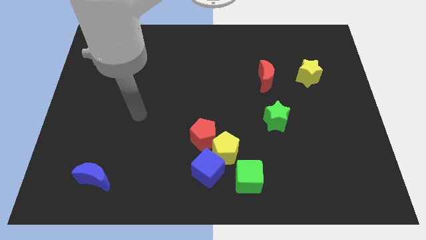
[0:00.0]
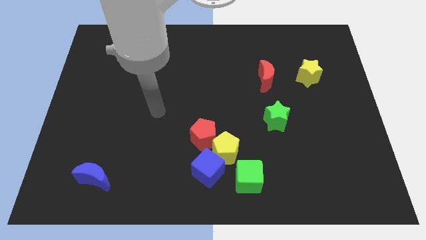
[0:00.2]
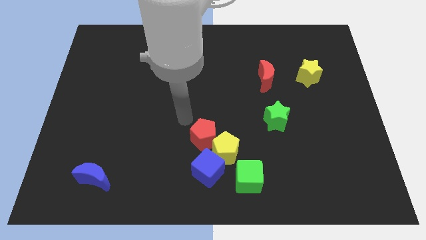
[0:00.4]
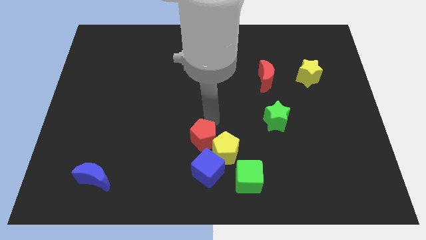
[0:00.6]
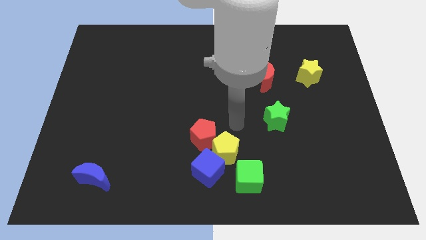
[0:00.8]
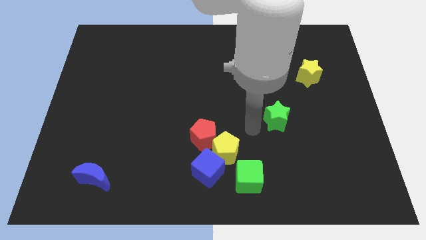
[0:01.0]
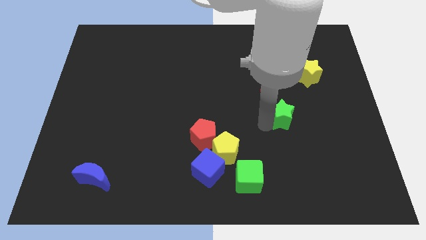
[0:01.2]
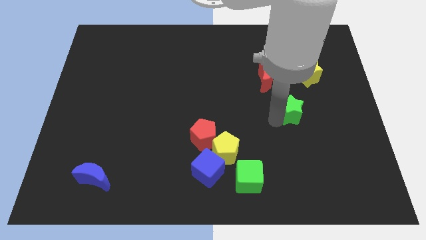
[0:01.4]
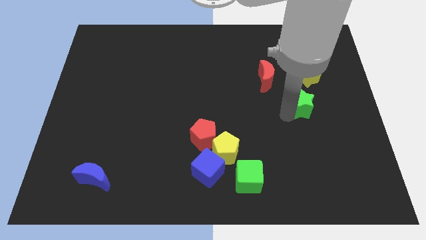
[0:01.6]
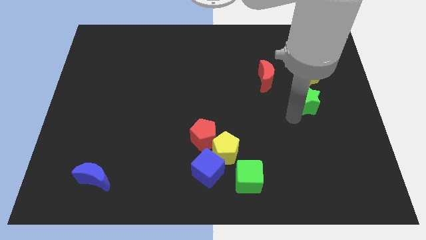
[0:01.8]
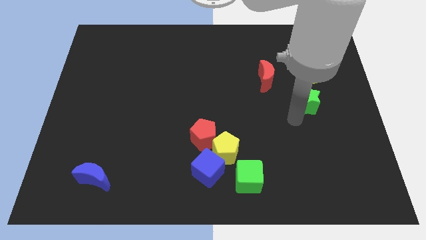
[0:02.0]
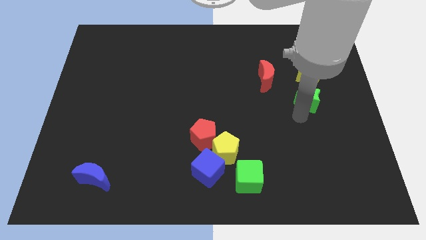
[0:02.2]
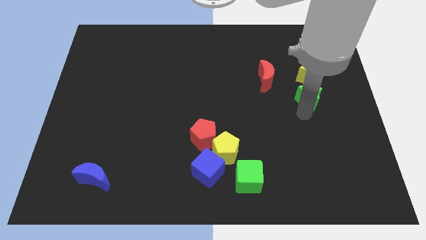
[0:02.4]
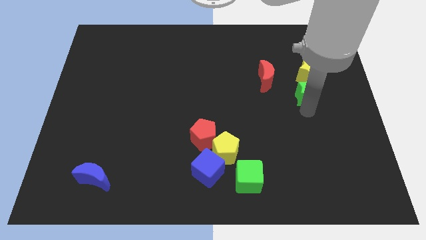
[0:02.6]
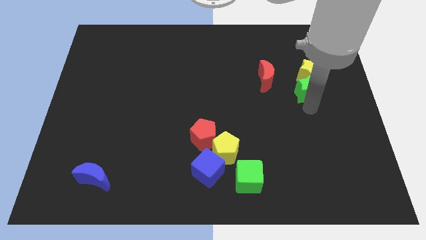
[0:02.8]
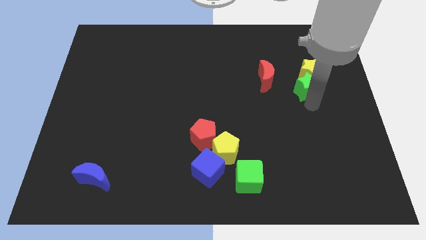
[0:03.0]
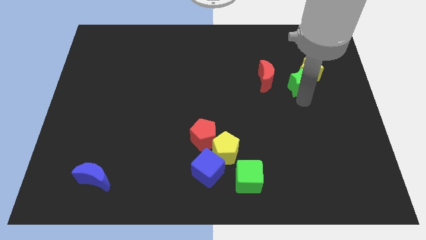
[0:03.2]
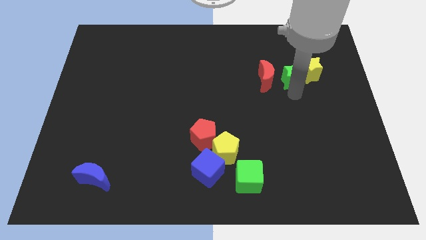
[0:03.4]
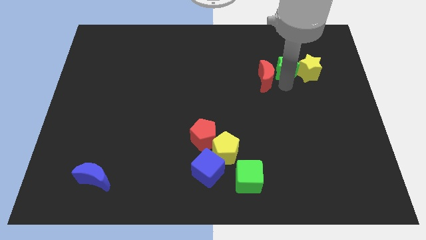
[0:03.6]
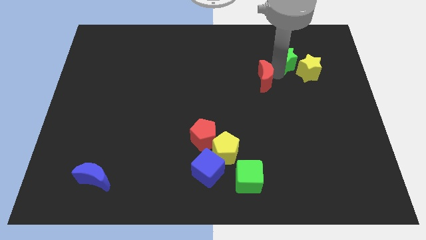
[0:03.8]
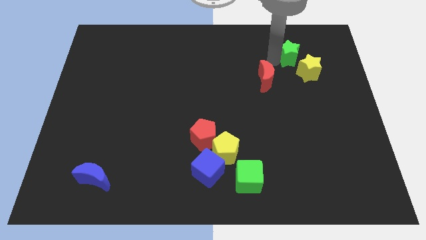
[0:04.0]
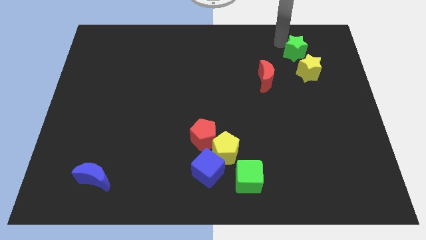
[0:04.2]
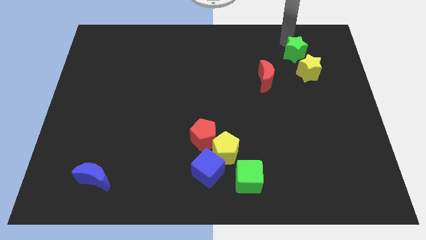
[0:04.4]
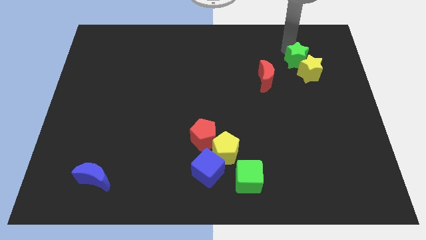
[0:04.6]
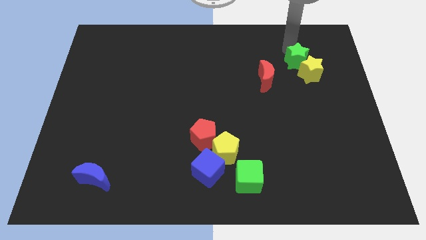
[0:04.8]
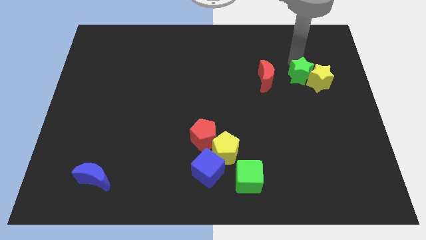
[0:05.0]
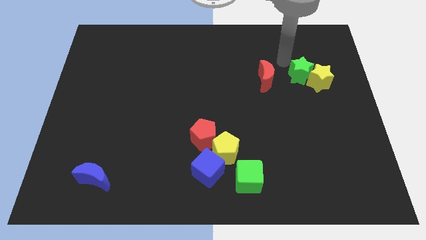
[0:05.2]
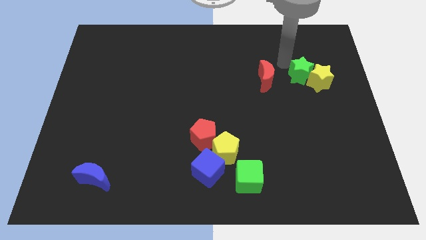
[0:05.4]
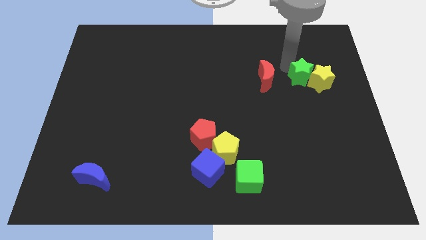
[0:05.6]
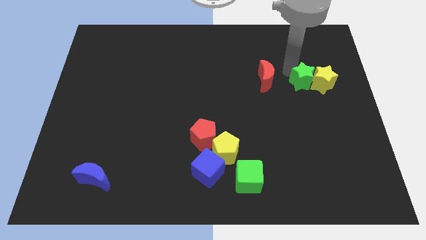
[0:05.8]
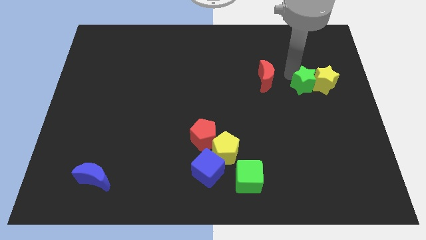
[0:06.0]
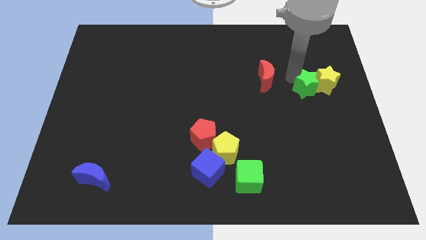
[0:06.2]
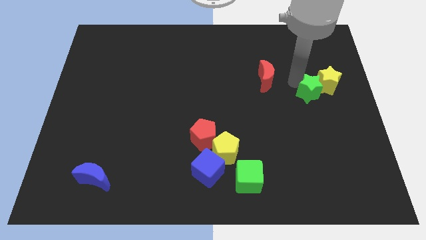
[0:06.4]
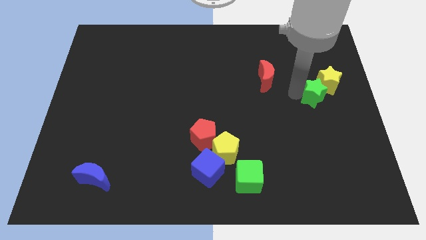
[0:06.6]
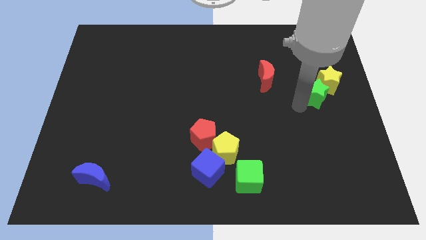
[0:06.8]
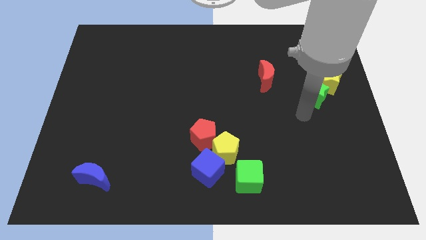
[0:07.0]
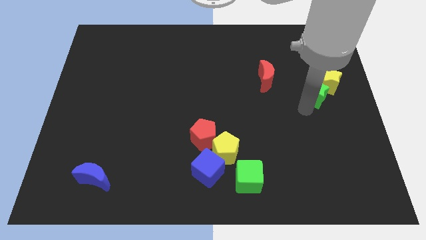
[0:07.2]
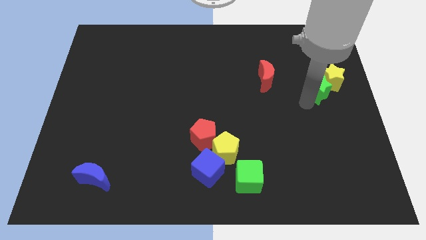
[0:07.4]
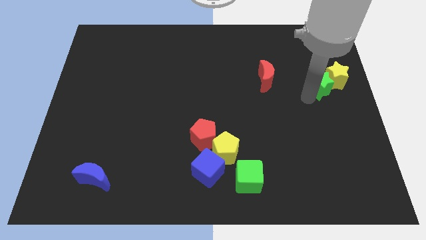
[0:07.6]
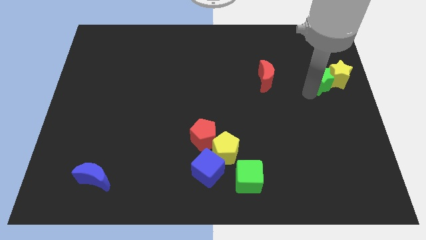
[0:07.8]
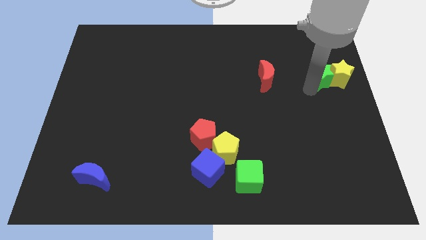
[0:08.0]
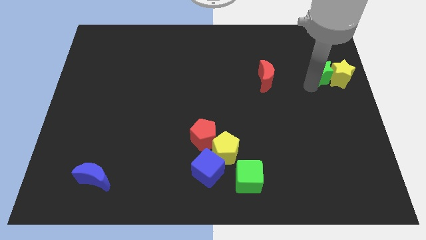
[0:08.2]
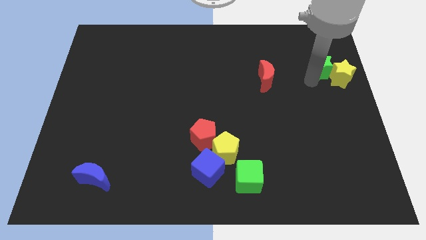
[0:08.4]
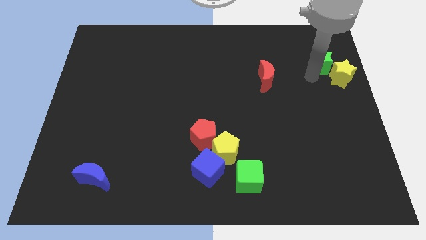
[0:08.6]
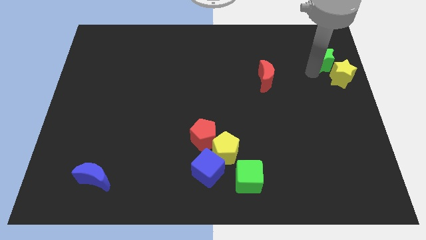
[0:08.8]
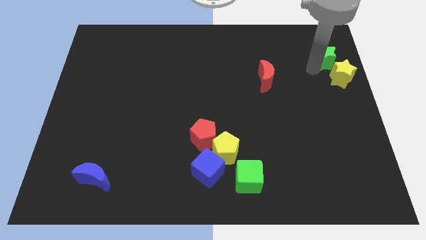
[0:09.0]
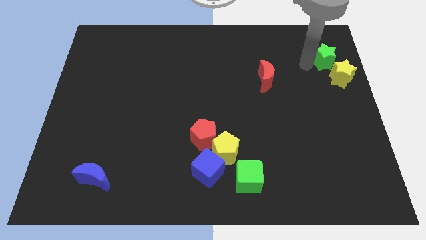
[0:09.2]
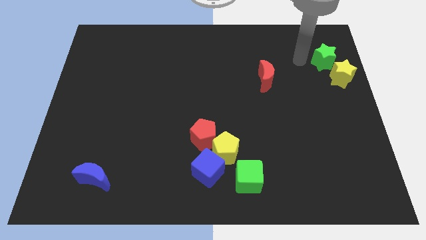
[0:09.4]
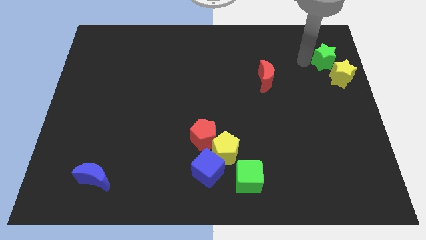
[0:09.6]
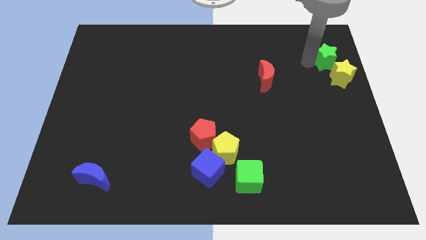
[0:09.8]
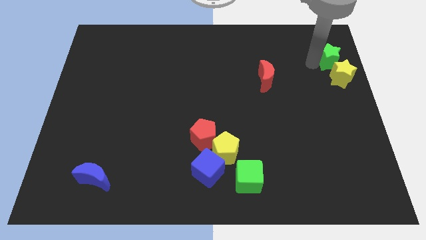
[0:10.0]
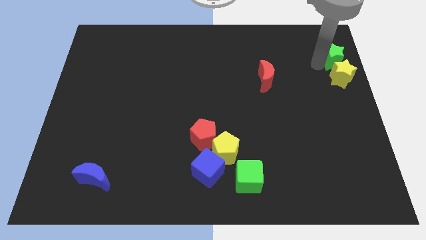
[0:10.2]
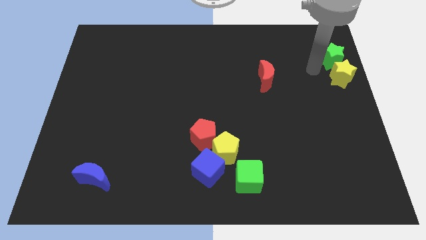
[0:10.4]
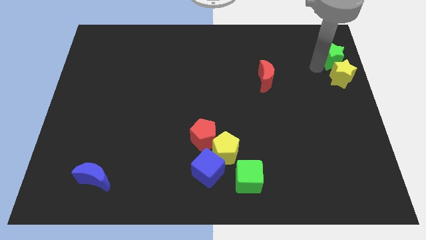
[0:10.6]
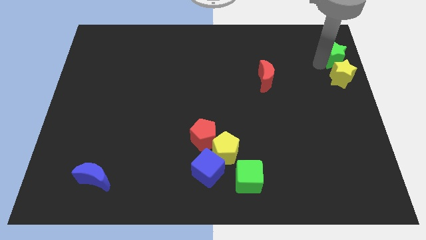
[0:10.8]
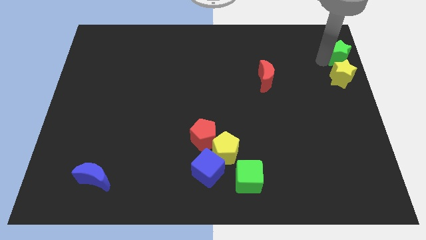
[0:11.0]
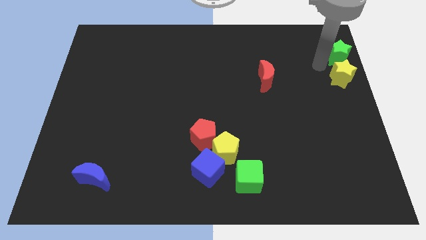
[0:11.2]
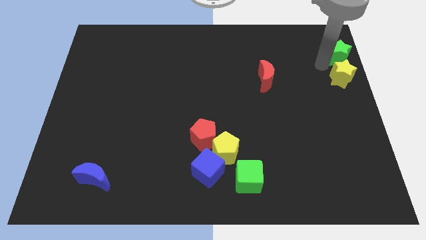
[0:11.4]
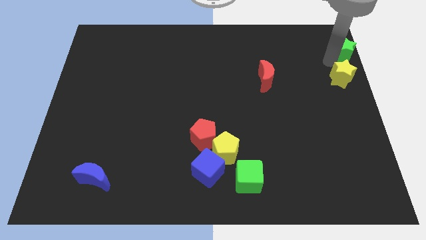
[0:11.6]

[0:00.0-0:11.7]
move the green star to the top right corner
